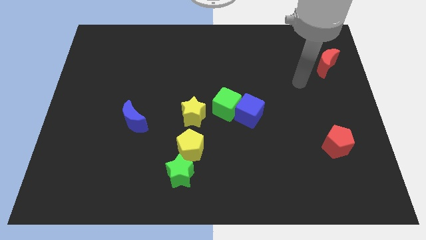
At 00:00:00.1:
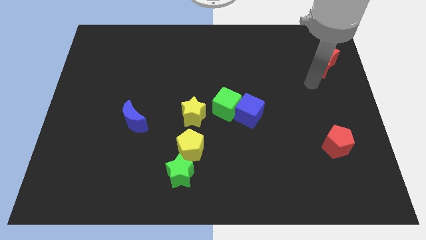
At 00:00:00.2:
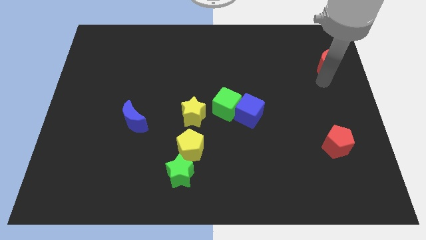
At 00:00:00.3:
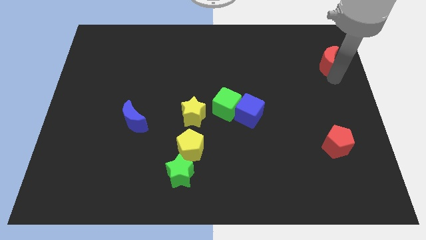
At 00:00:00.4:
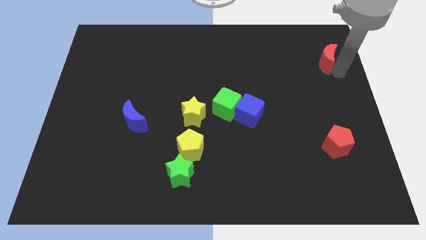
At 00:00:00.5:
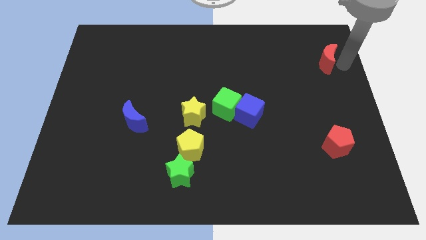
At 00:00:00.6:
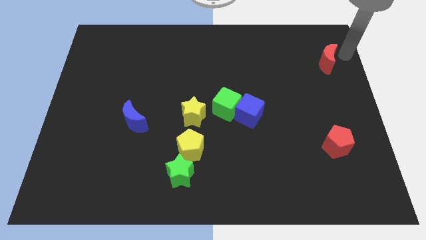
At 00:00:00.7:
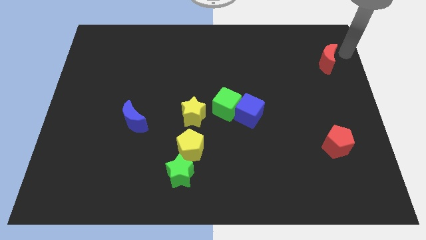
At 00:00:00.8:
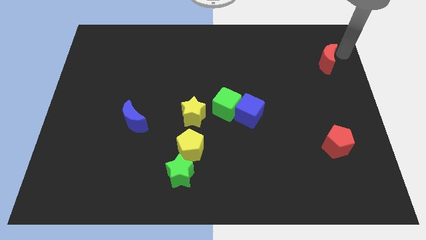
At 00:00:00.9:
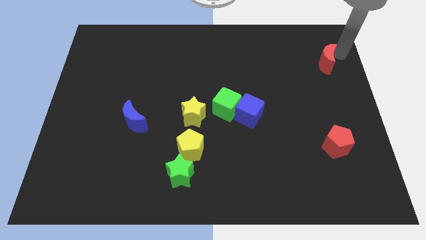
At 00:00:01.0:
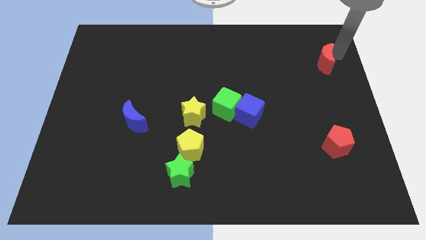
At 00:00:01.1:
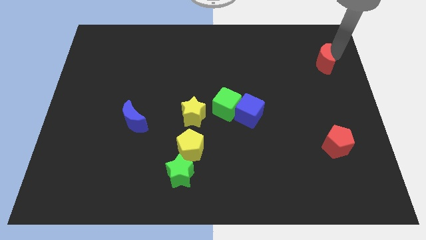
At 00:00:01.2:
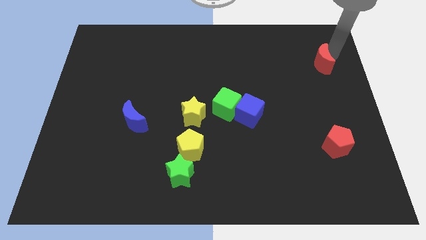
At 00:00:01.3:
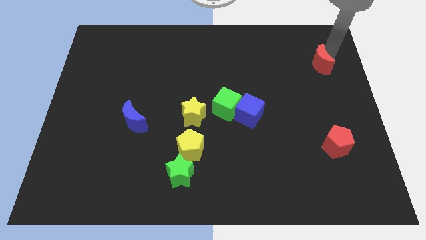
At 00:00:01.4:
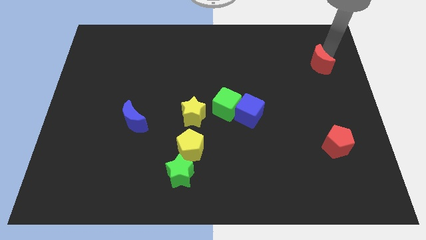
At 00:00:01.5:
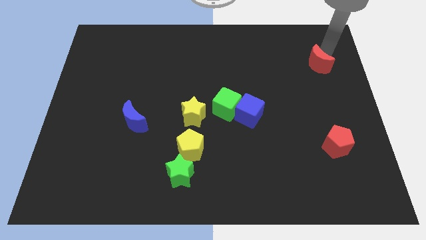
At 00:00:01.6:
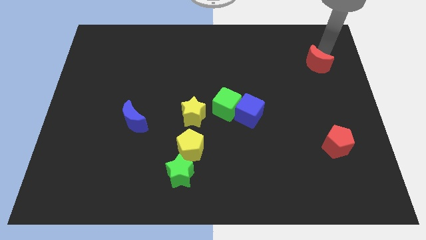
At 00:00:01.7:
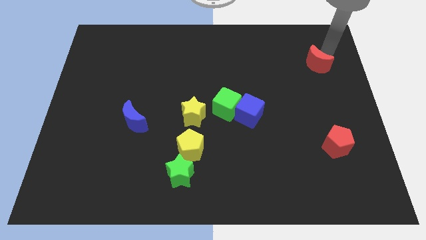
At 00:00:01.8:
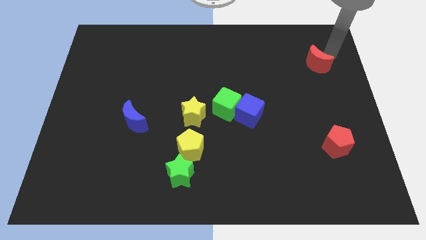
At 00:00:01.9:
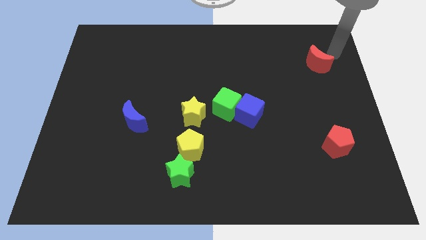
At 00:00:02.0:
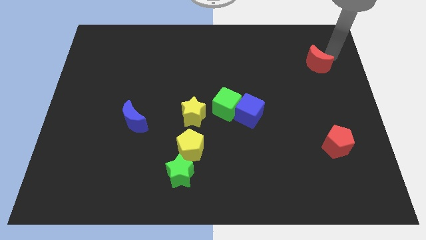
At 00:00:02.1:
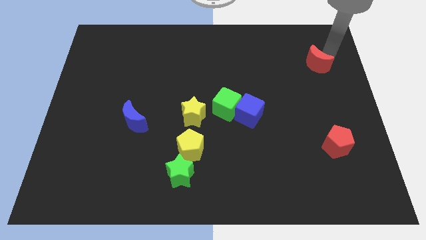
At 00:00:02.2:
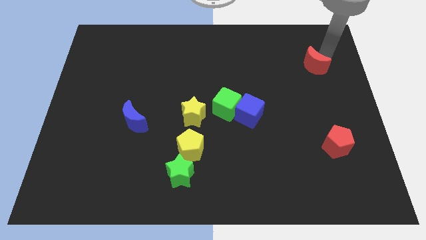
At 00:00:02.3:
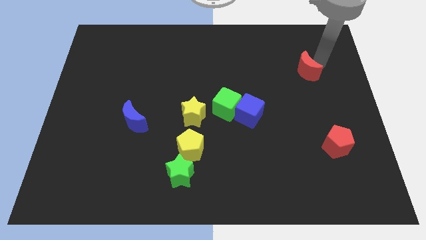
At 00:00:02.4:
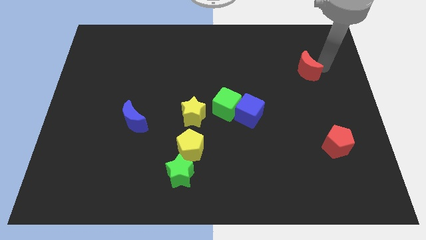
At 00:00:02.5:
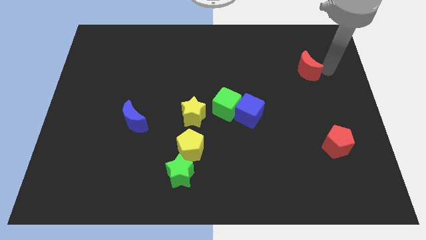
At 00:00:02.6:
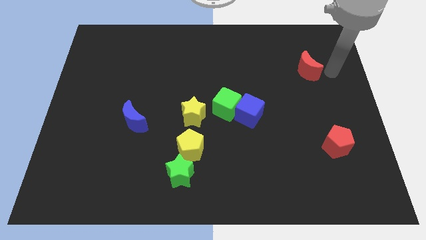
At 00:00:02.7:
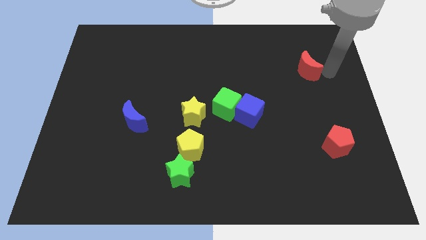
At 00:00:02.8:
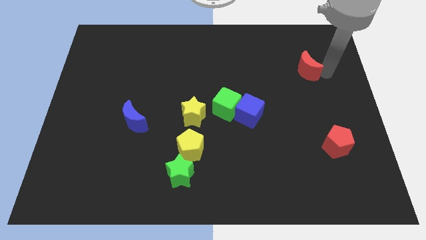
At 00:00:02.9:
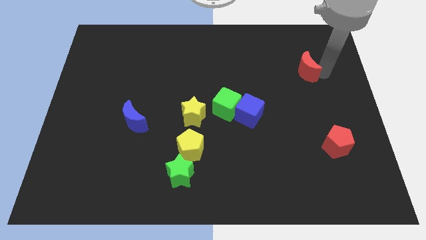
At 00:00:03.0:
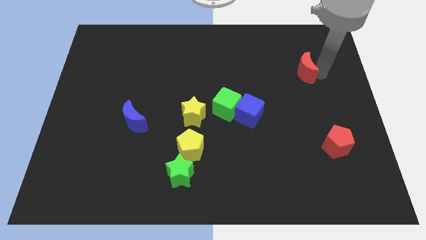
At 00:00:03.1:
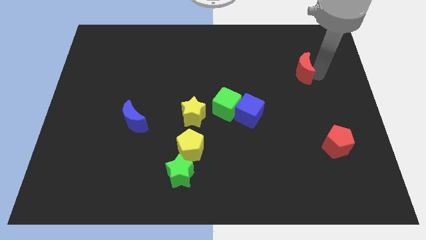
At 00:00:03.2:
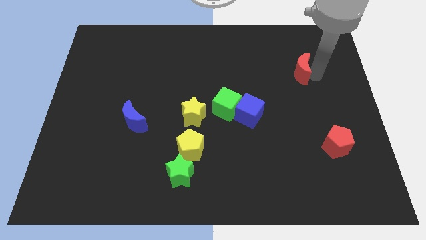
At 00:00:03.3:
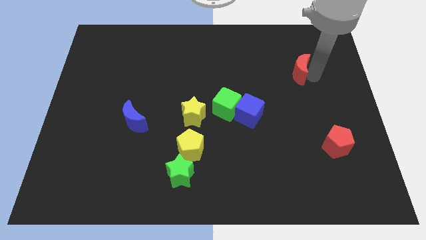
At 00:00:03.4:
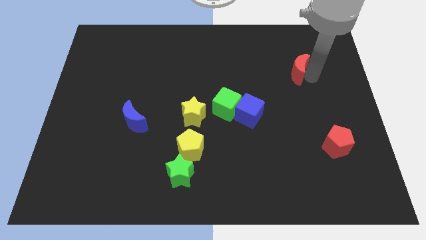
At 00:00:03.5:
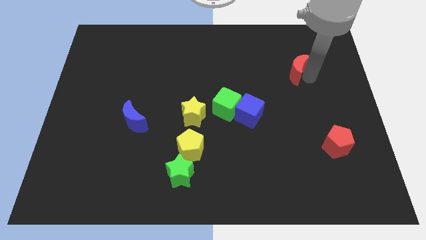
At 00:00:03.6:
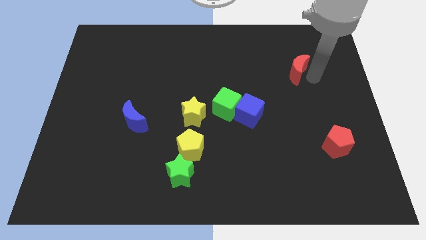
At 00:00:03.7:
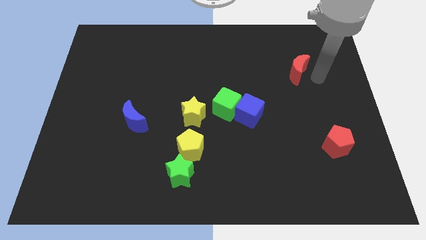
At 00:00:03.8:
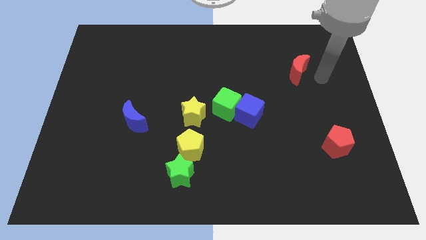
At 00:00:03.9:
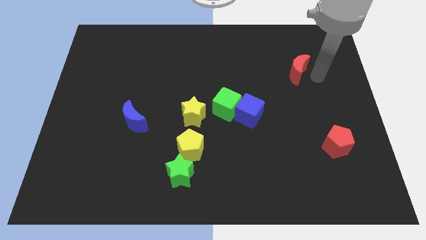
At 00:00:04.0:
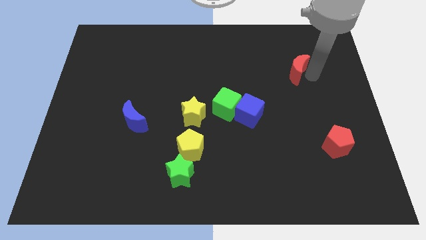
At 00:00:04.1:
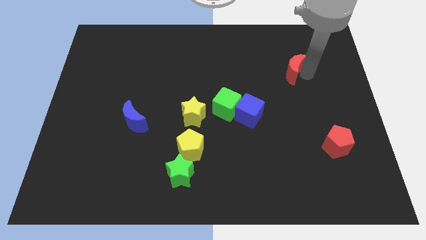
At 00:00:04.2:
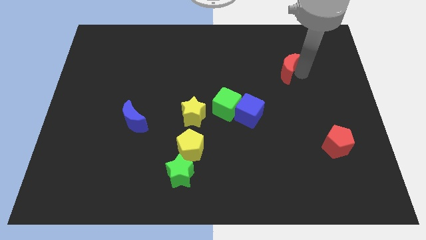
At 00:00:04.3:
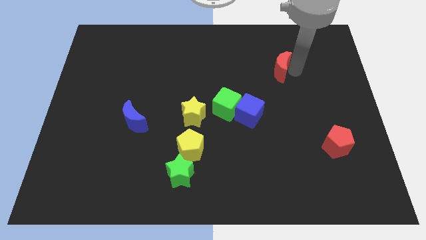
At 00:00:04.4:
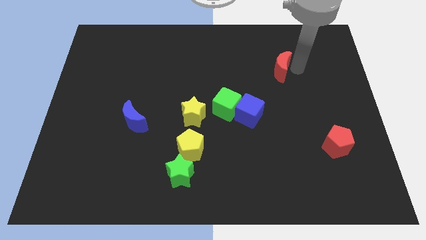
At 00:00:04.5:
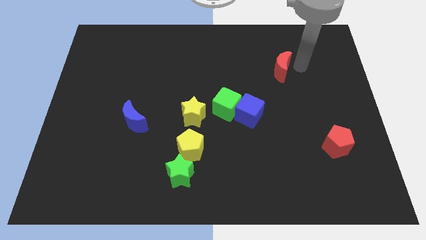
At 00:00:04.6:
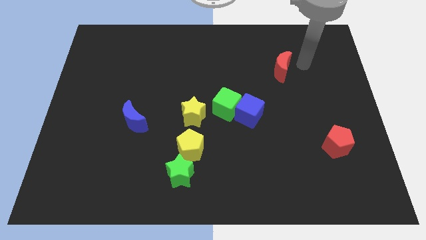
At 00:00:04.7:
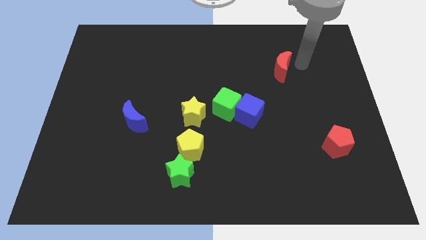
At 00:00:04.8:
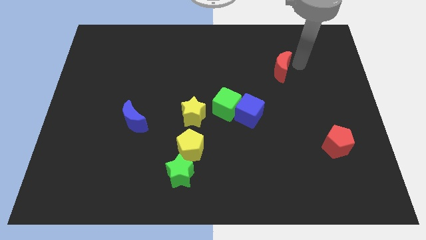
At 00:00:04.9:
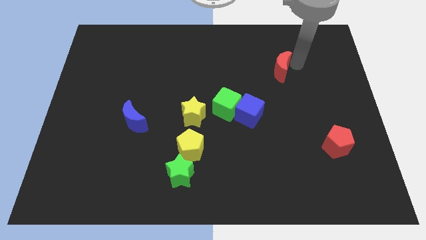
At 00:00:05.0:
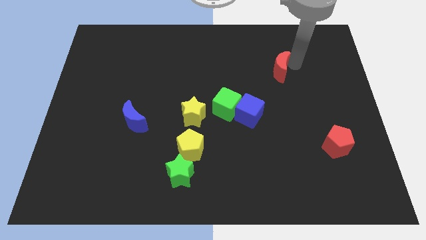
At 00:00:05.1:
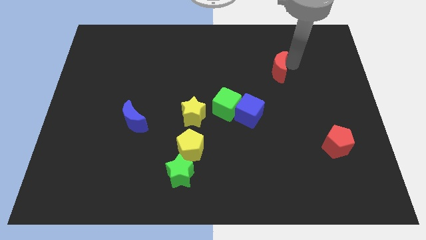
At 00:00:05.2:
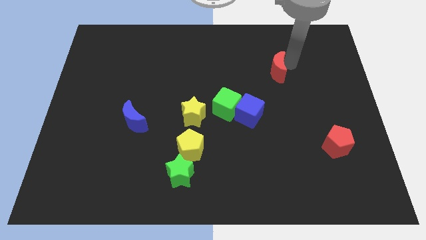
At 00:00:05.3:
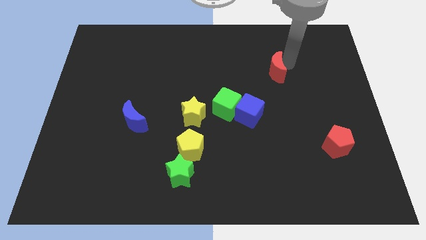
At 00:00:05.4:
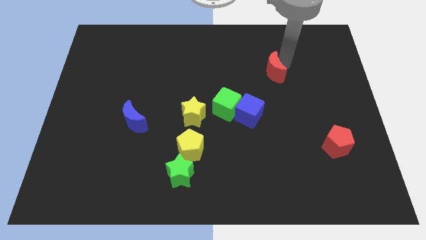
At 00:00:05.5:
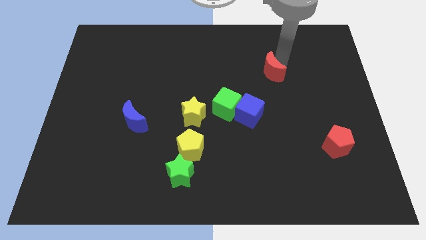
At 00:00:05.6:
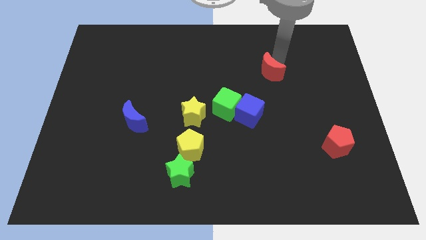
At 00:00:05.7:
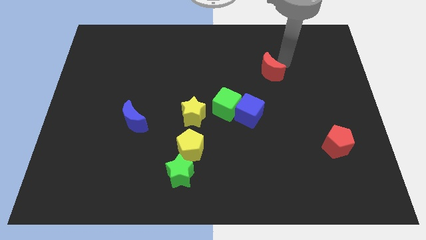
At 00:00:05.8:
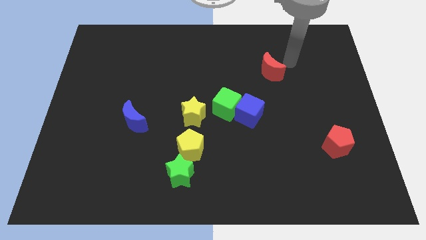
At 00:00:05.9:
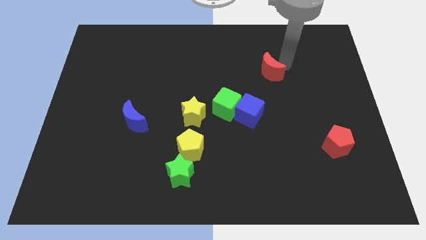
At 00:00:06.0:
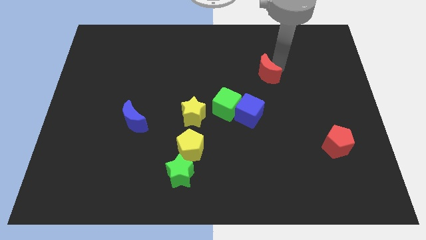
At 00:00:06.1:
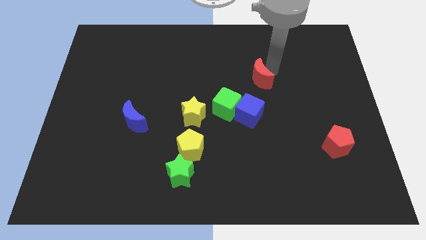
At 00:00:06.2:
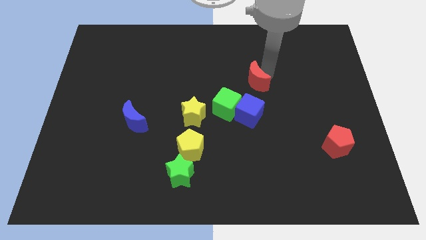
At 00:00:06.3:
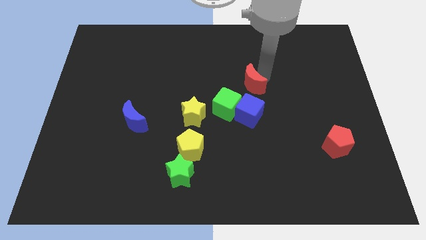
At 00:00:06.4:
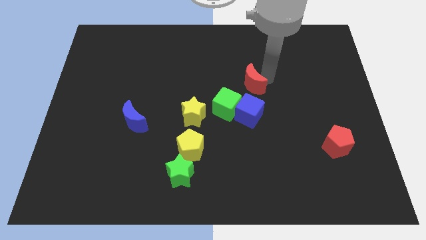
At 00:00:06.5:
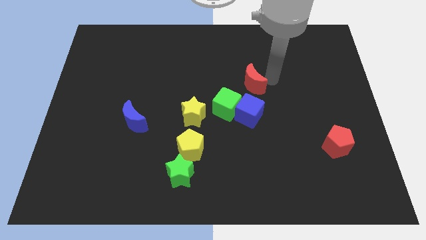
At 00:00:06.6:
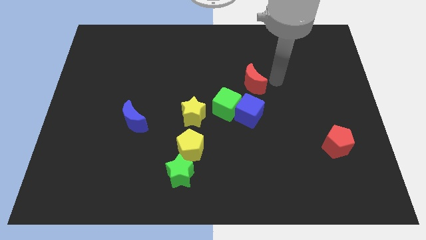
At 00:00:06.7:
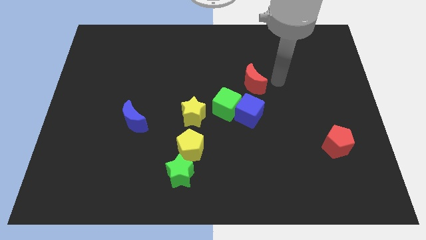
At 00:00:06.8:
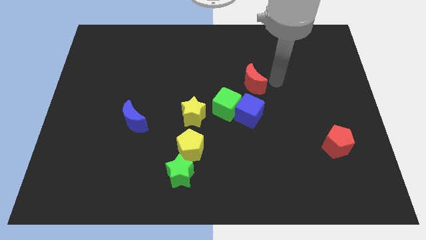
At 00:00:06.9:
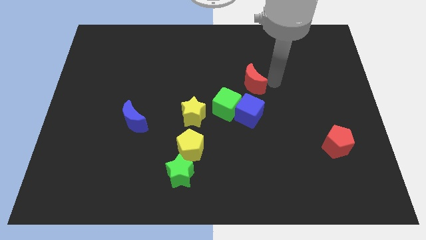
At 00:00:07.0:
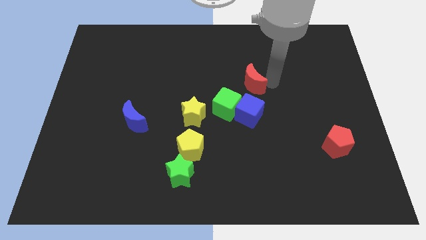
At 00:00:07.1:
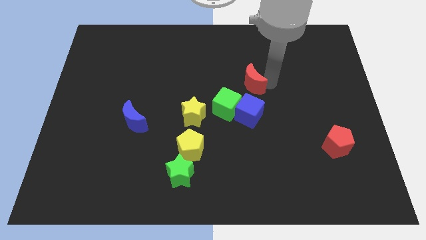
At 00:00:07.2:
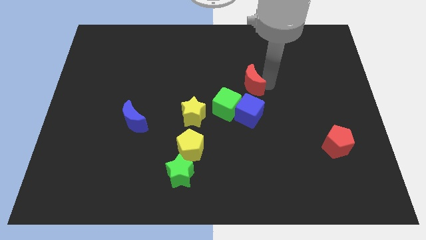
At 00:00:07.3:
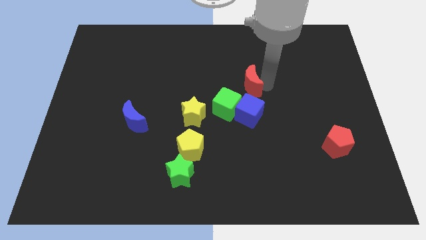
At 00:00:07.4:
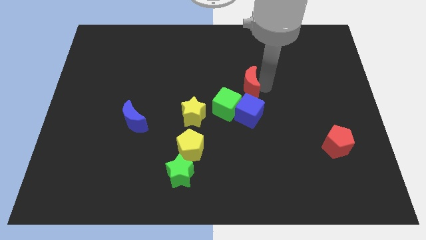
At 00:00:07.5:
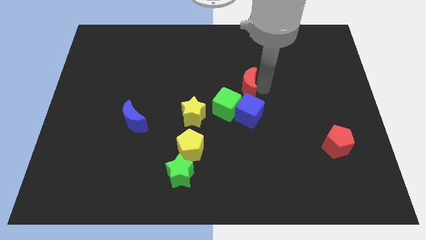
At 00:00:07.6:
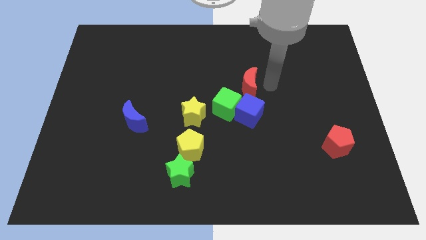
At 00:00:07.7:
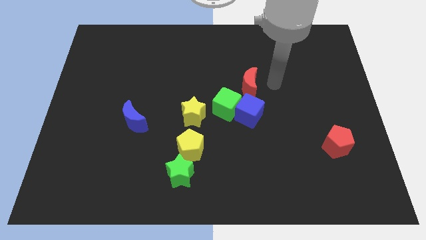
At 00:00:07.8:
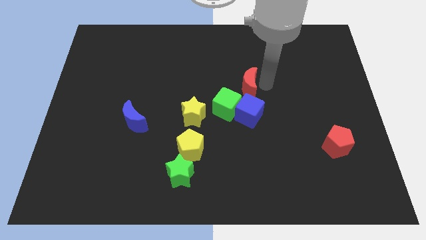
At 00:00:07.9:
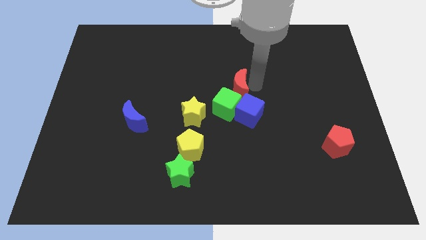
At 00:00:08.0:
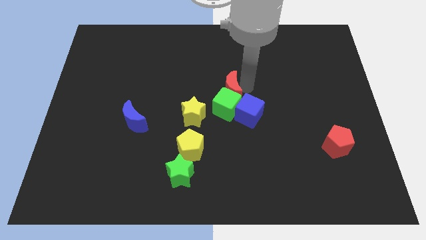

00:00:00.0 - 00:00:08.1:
slide the red moon to the top left side of the green cube
